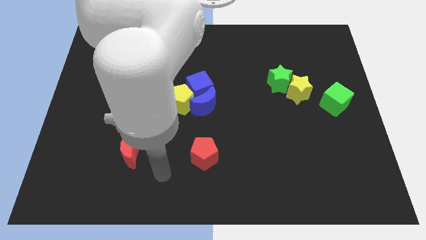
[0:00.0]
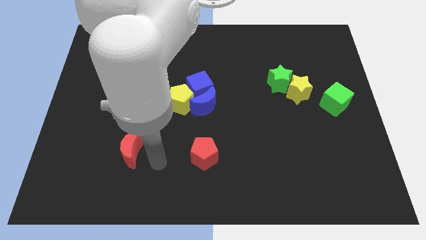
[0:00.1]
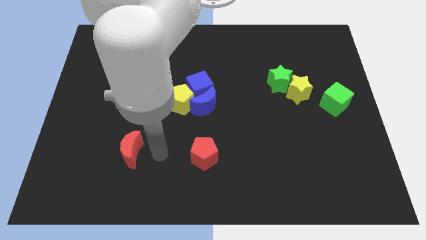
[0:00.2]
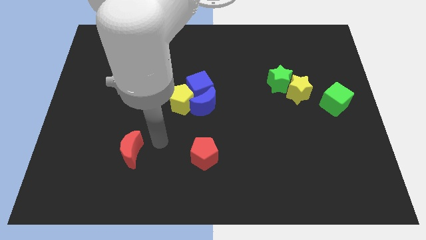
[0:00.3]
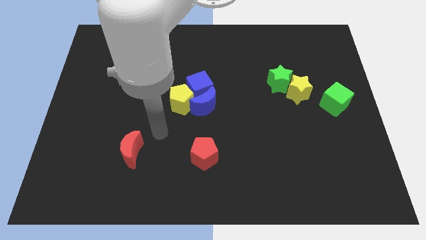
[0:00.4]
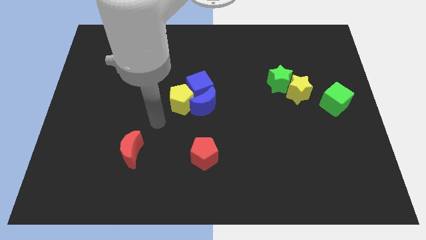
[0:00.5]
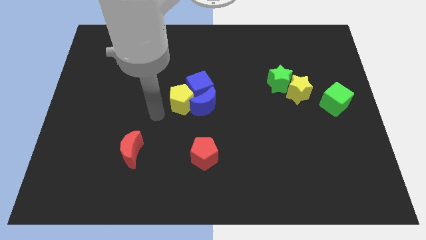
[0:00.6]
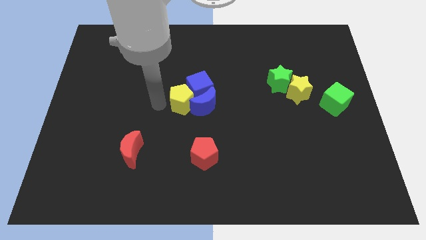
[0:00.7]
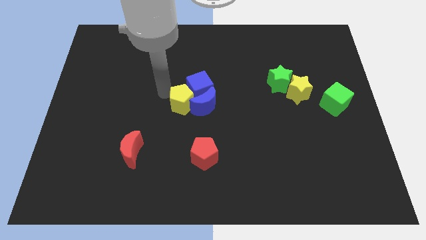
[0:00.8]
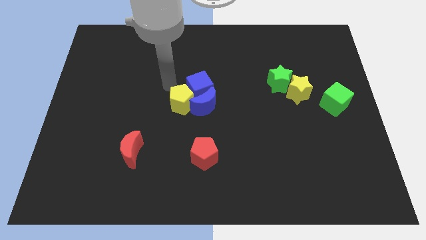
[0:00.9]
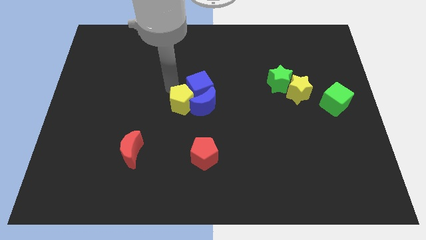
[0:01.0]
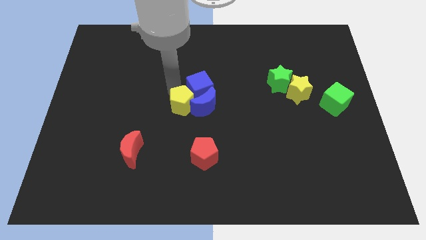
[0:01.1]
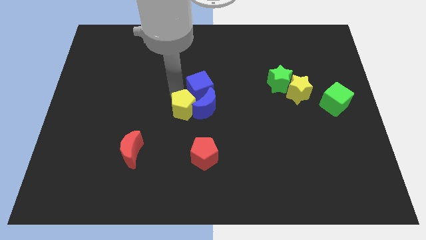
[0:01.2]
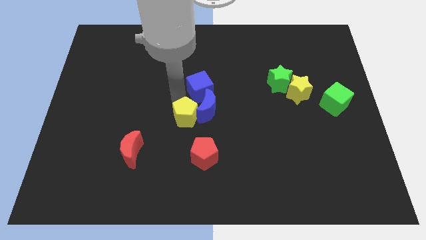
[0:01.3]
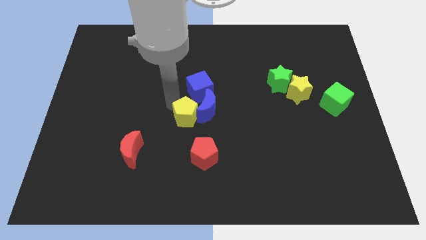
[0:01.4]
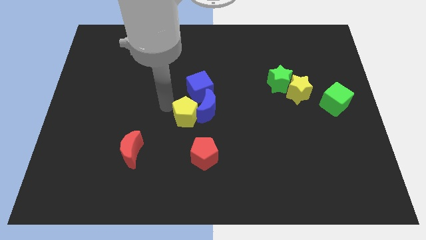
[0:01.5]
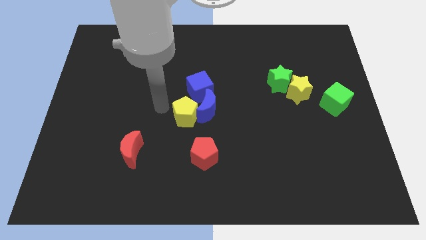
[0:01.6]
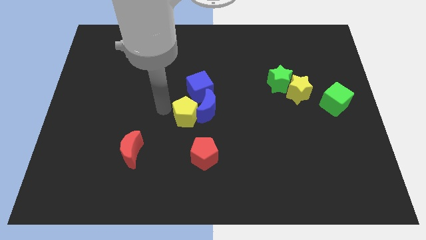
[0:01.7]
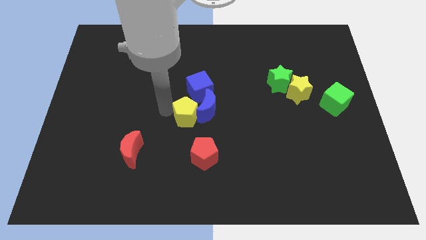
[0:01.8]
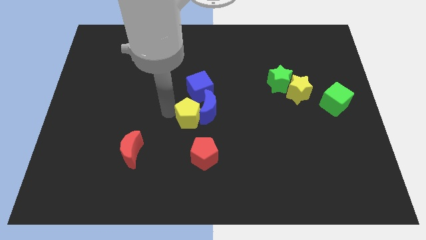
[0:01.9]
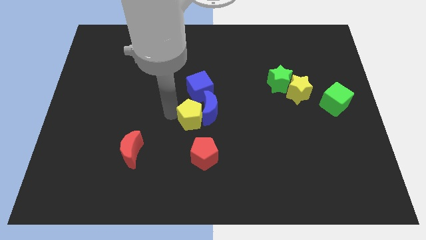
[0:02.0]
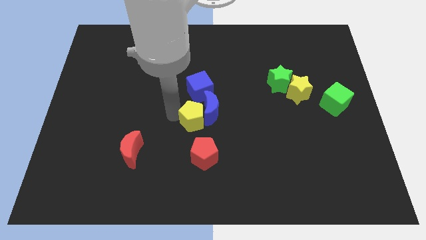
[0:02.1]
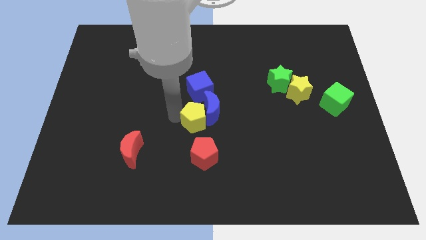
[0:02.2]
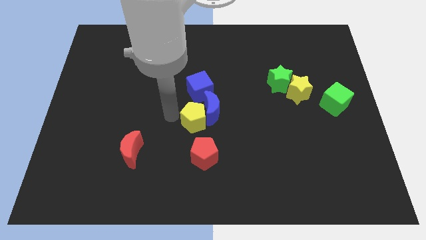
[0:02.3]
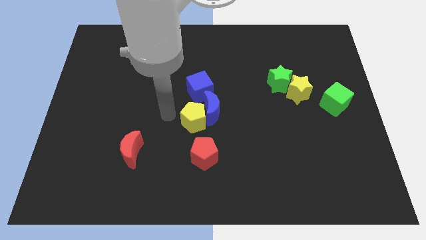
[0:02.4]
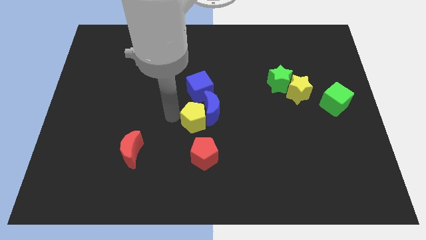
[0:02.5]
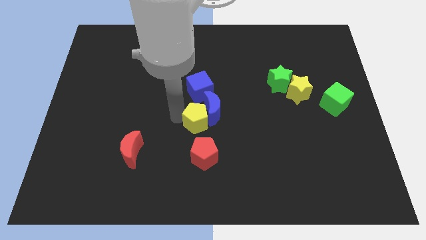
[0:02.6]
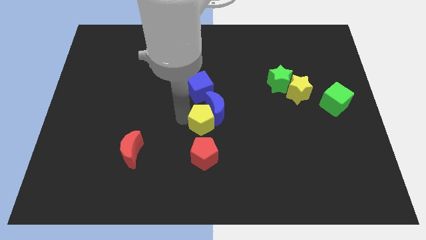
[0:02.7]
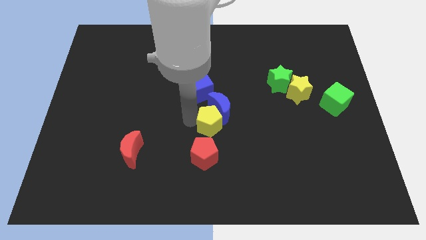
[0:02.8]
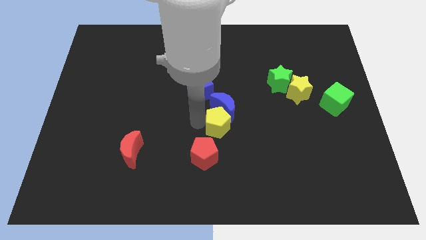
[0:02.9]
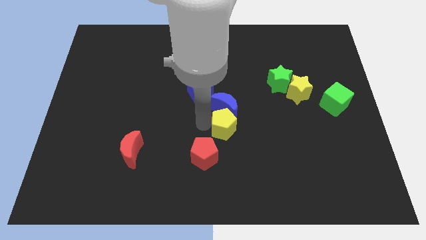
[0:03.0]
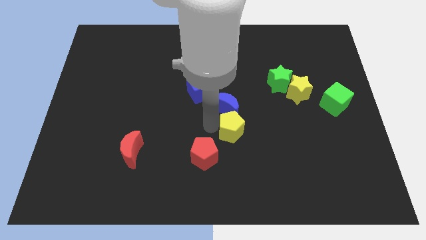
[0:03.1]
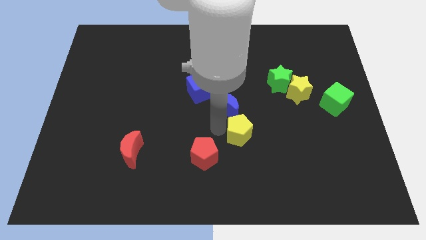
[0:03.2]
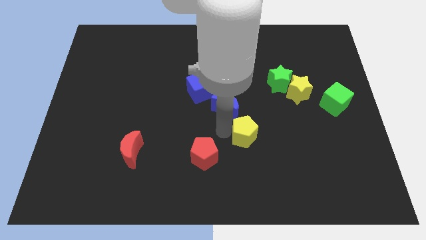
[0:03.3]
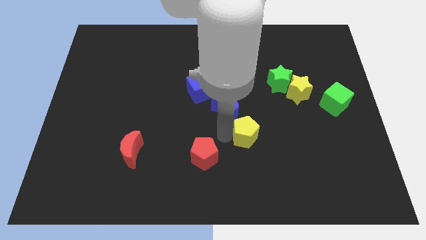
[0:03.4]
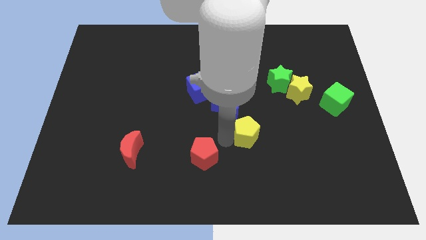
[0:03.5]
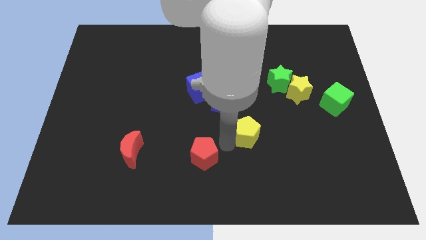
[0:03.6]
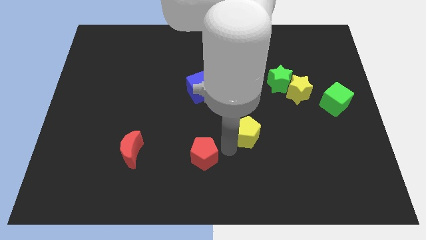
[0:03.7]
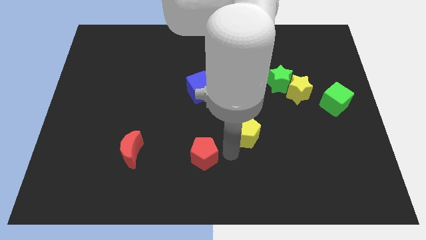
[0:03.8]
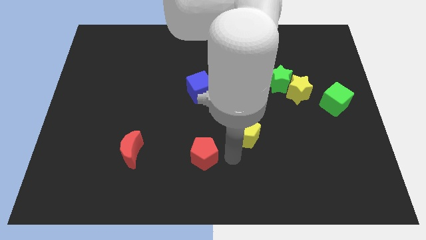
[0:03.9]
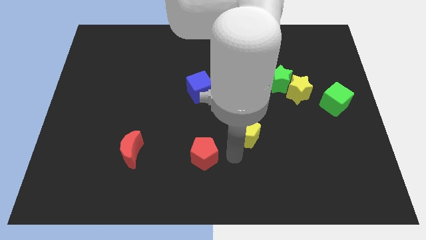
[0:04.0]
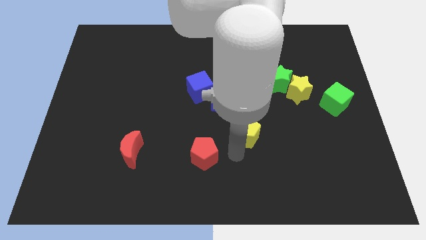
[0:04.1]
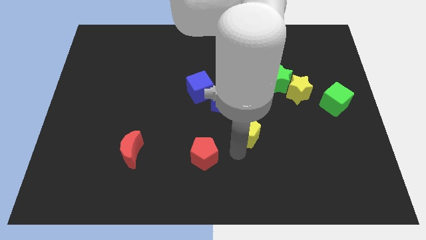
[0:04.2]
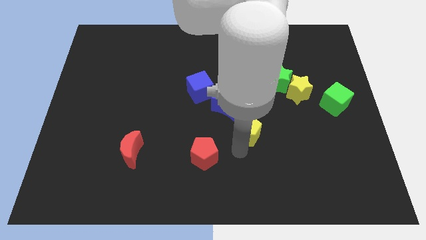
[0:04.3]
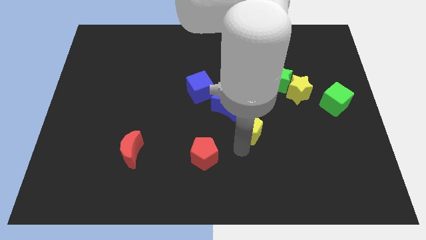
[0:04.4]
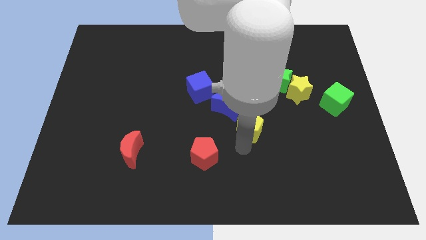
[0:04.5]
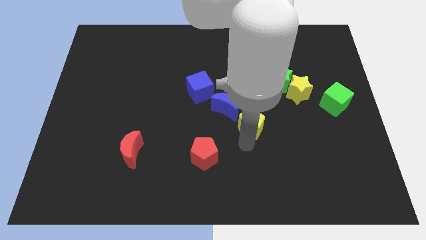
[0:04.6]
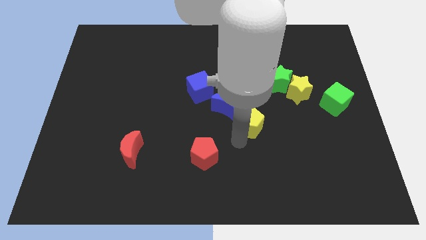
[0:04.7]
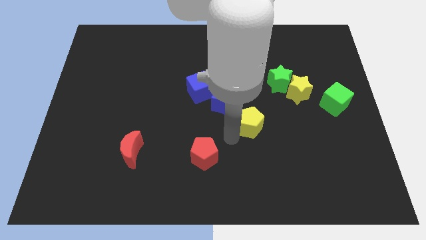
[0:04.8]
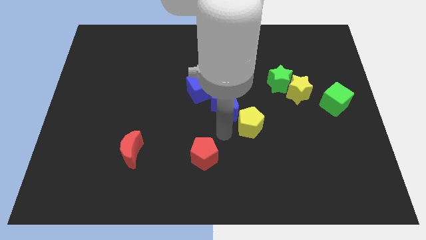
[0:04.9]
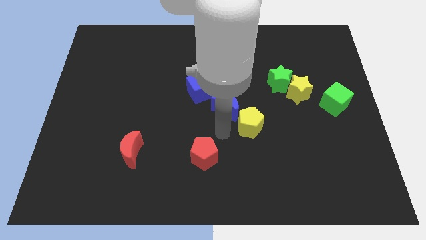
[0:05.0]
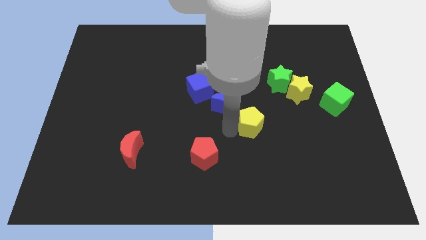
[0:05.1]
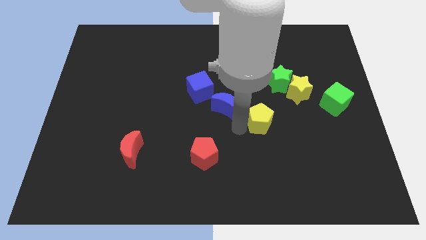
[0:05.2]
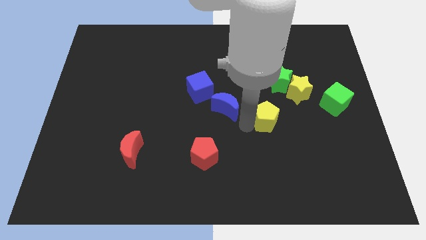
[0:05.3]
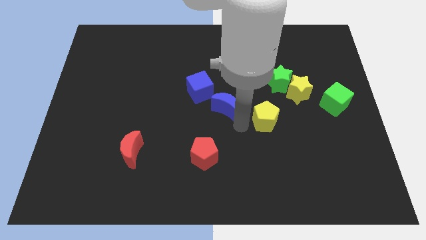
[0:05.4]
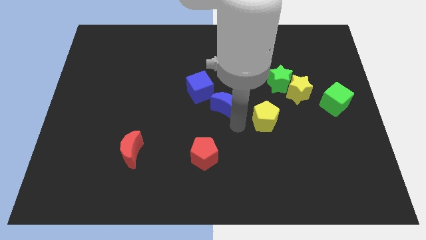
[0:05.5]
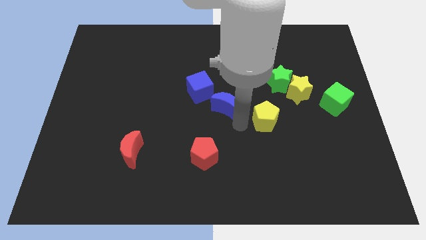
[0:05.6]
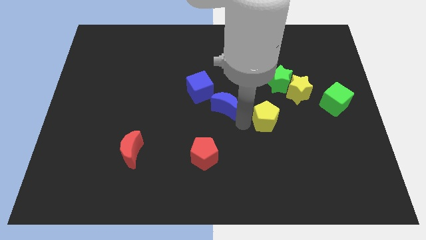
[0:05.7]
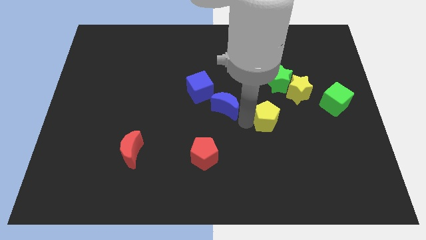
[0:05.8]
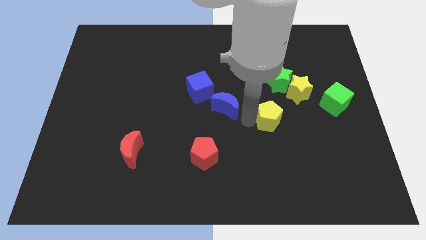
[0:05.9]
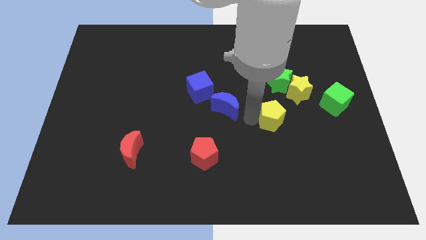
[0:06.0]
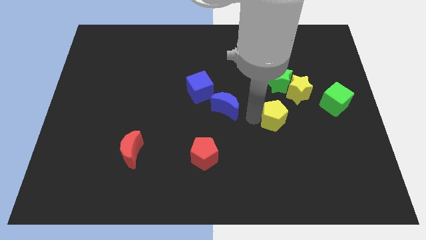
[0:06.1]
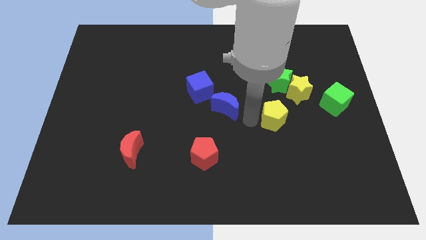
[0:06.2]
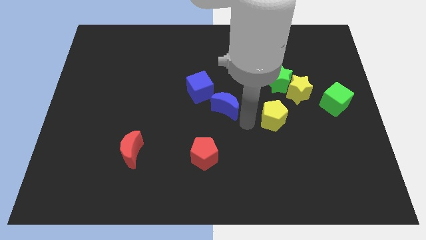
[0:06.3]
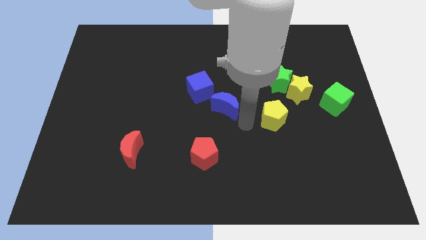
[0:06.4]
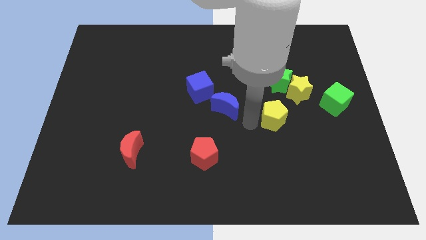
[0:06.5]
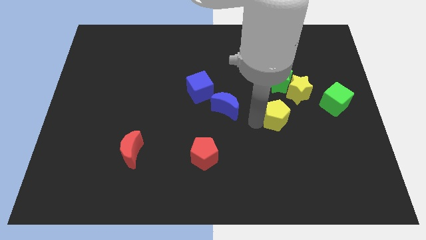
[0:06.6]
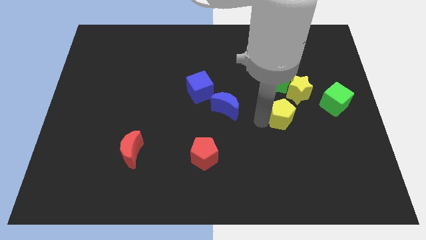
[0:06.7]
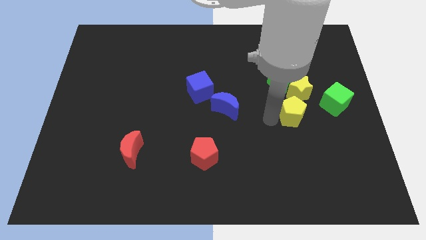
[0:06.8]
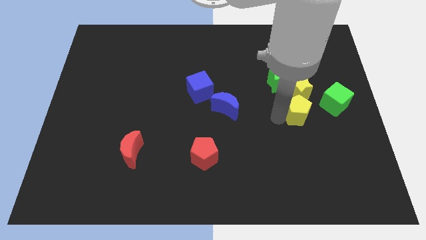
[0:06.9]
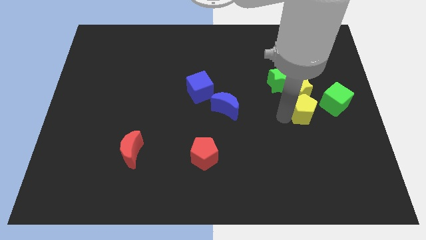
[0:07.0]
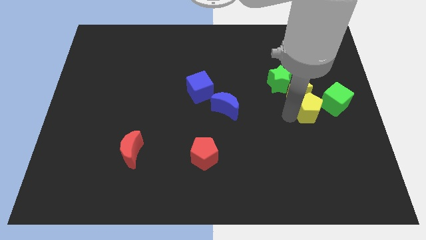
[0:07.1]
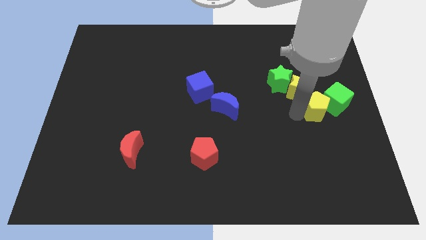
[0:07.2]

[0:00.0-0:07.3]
put the yellow pentagon towards the green cube
